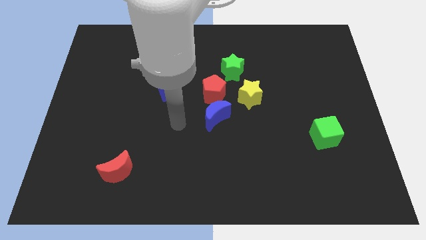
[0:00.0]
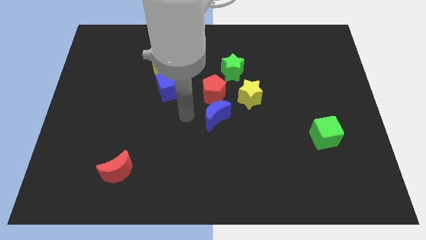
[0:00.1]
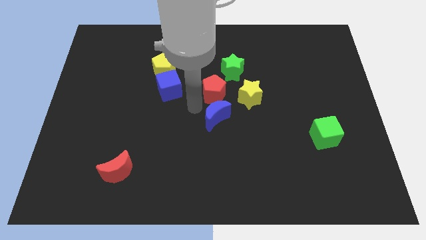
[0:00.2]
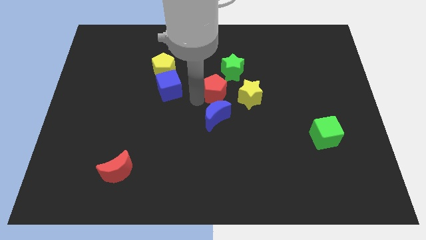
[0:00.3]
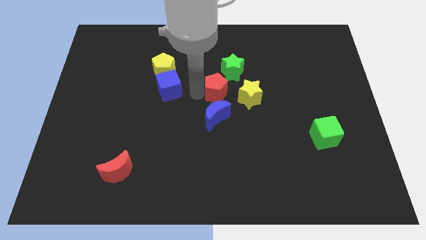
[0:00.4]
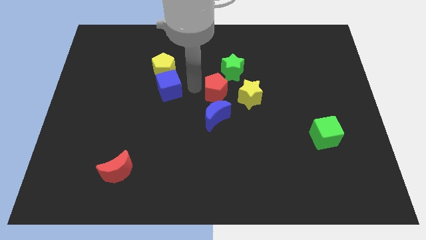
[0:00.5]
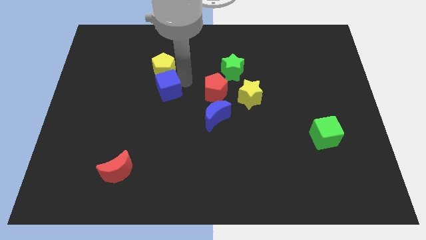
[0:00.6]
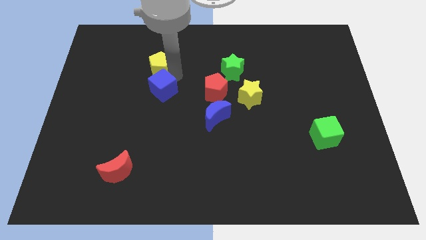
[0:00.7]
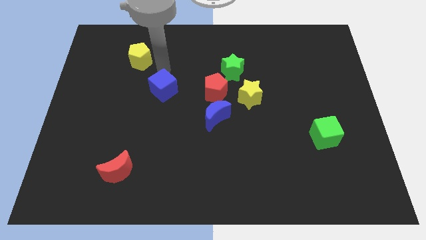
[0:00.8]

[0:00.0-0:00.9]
separate the blue cube from the yellow pentagon

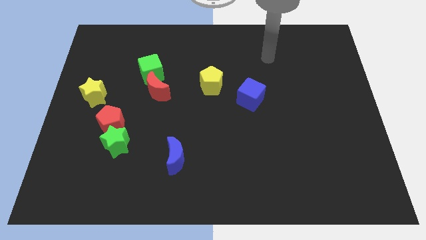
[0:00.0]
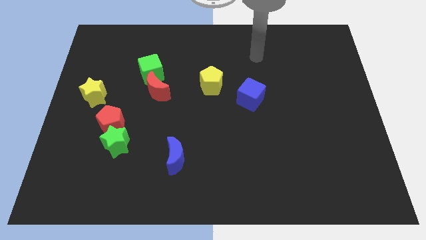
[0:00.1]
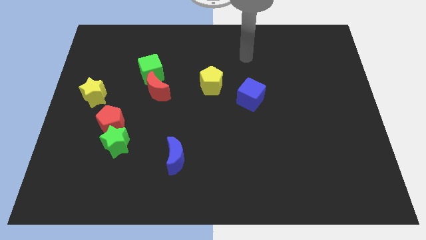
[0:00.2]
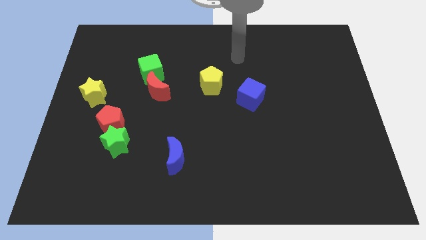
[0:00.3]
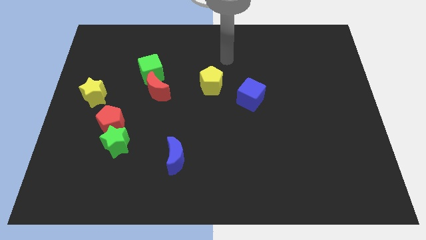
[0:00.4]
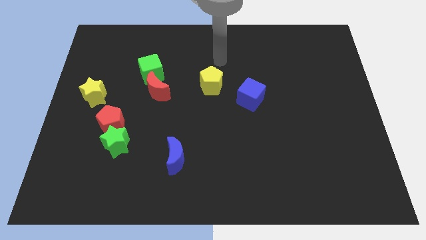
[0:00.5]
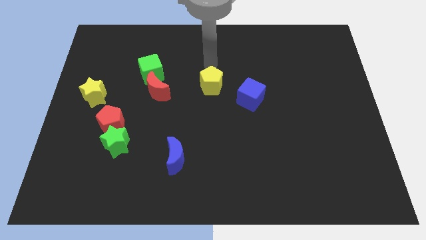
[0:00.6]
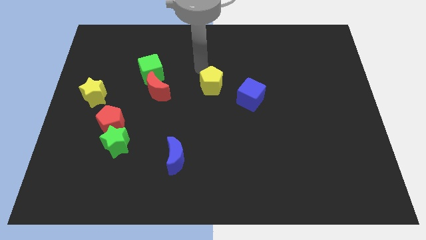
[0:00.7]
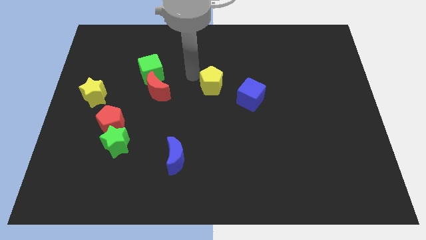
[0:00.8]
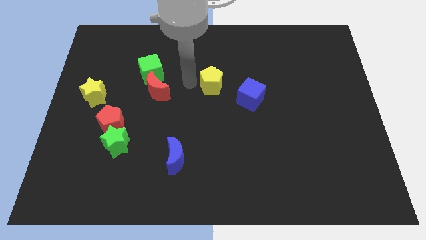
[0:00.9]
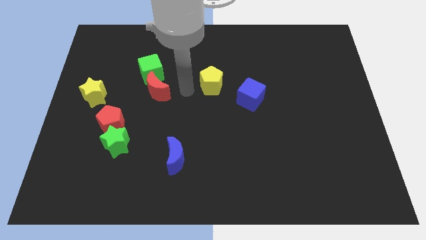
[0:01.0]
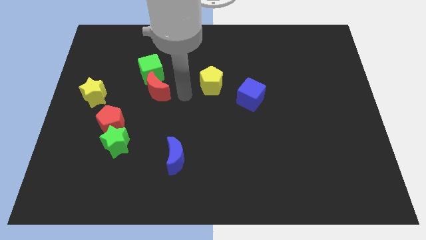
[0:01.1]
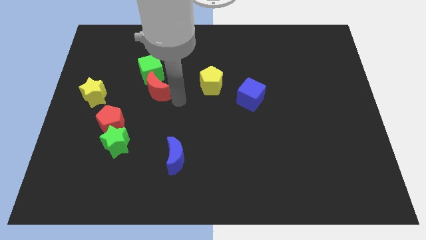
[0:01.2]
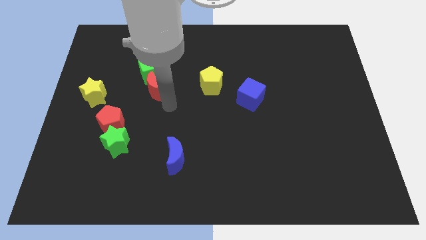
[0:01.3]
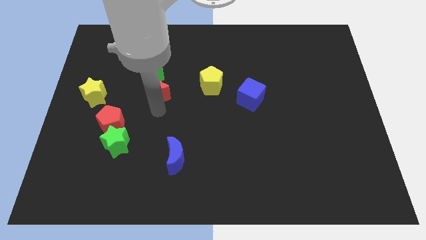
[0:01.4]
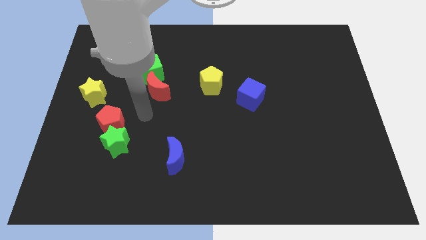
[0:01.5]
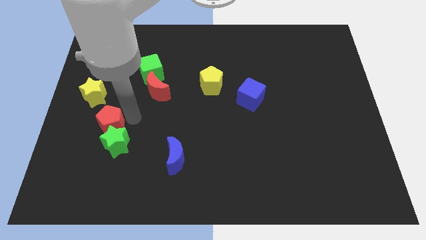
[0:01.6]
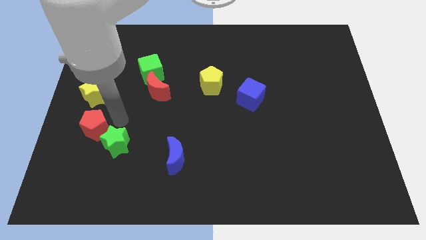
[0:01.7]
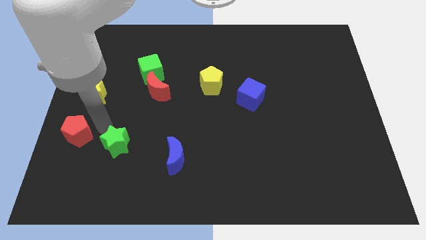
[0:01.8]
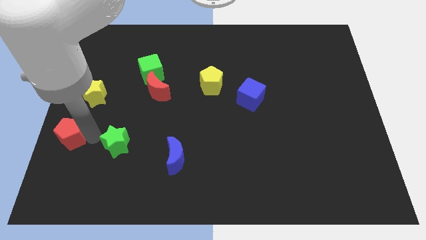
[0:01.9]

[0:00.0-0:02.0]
move the green star away from the red pentagon

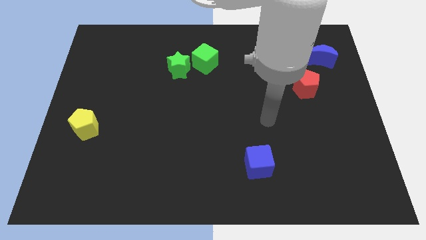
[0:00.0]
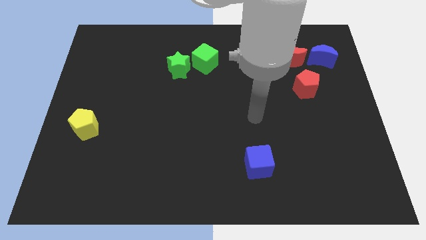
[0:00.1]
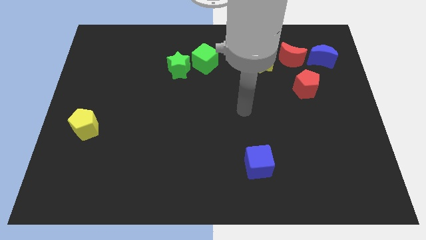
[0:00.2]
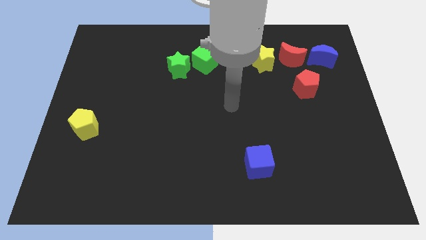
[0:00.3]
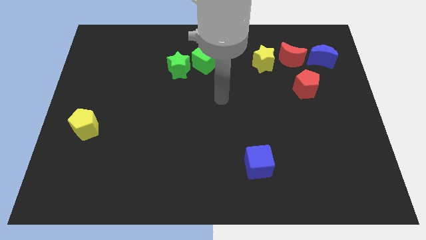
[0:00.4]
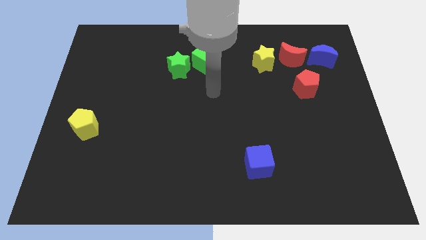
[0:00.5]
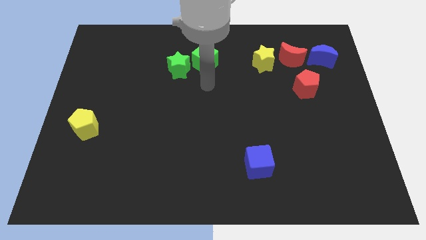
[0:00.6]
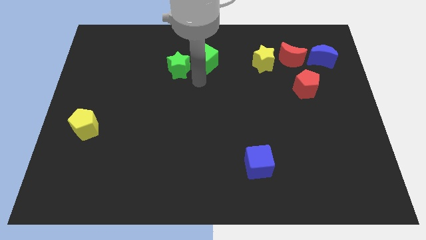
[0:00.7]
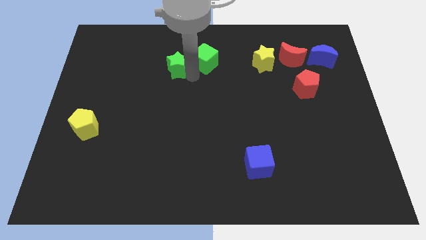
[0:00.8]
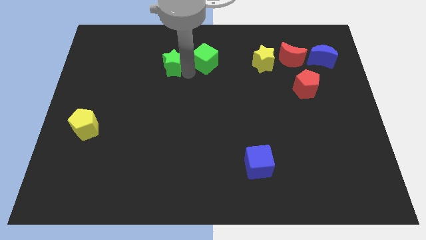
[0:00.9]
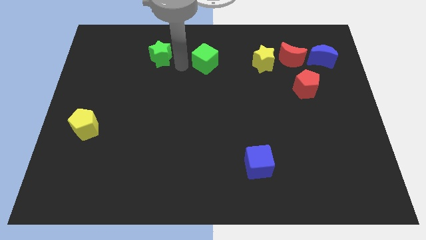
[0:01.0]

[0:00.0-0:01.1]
move the green cube away from the green star

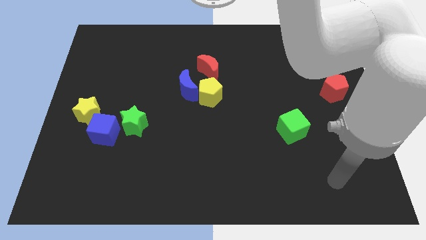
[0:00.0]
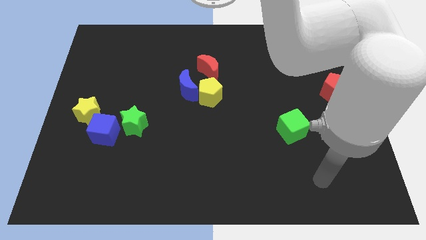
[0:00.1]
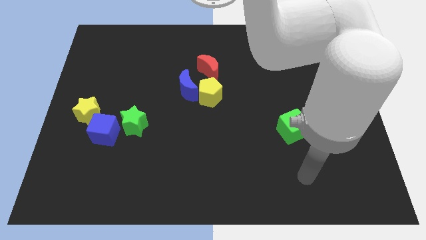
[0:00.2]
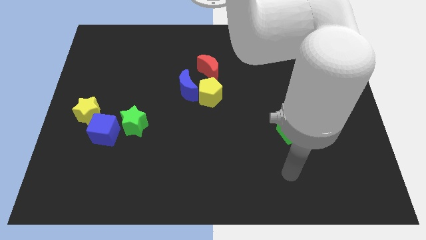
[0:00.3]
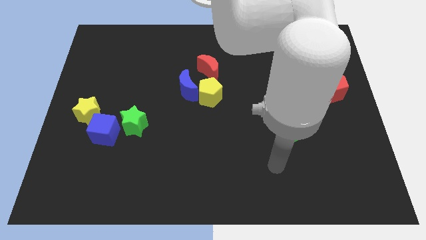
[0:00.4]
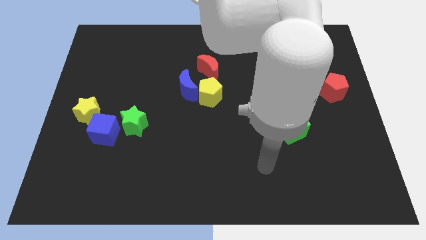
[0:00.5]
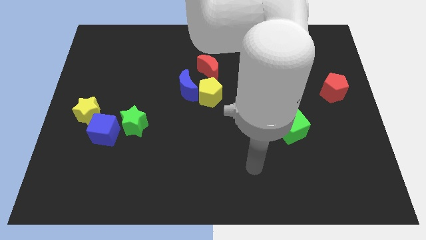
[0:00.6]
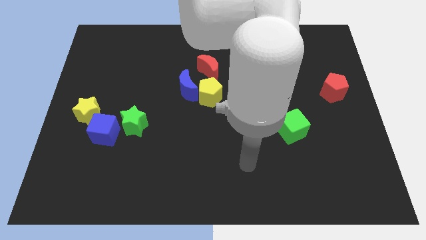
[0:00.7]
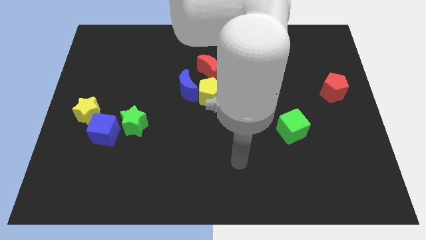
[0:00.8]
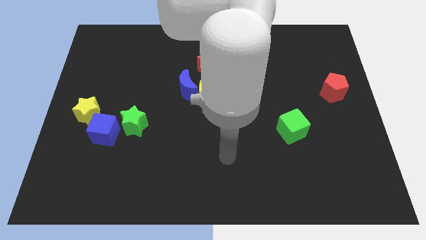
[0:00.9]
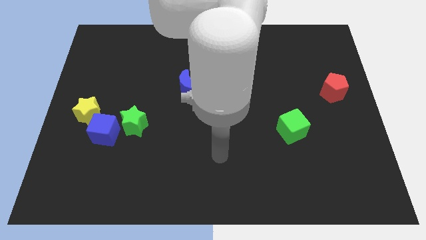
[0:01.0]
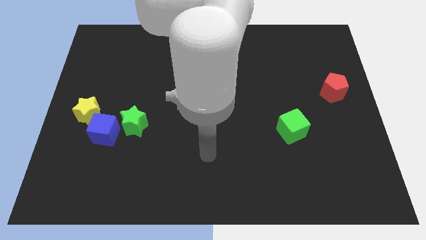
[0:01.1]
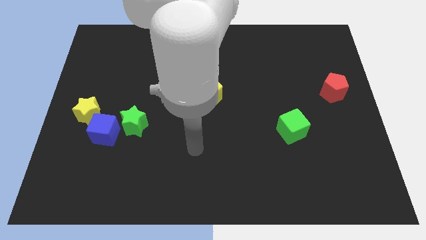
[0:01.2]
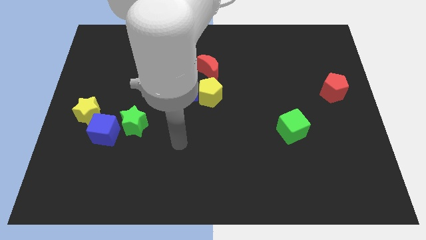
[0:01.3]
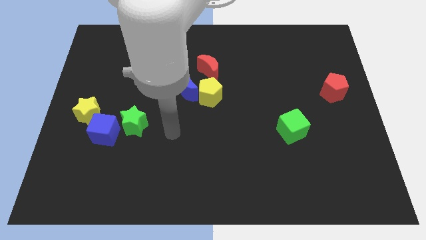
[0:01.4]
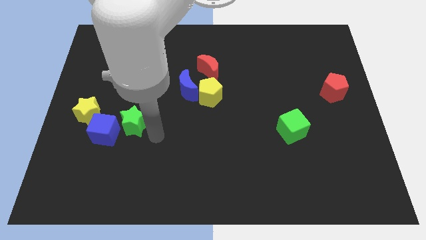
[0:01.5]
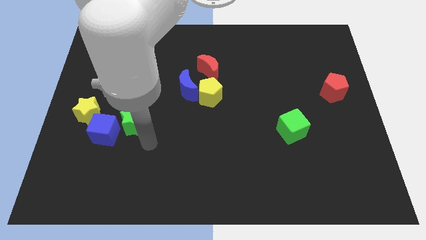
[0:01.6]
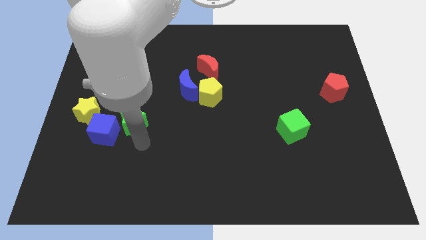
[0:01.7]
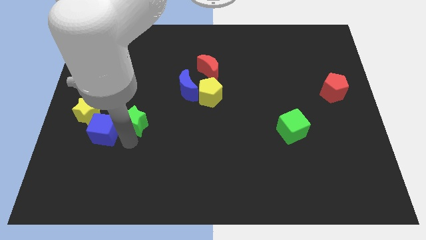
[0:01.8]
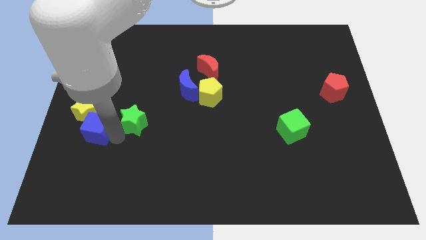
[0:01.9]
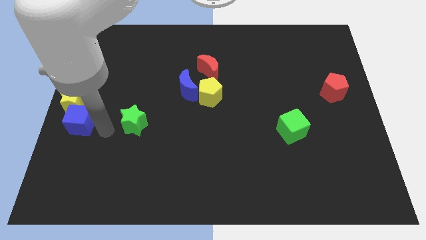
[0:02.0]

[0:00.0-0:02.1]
separate the green star from the blue cube

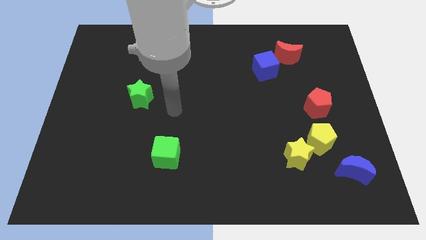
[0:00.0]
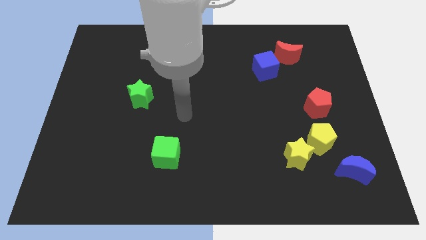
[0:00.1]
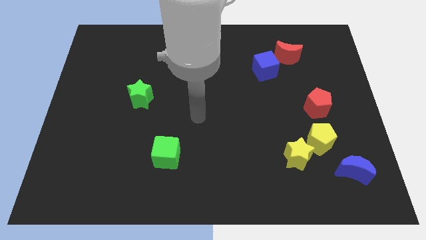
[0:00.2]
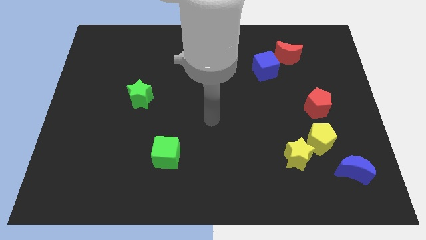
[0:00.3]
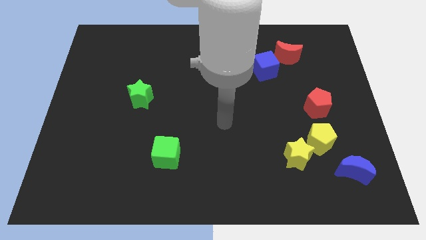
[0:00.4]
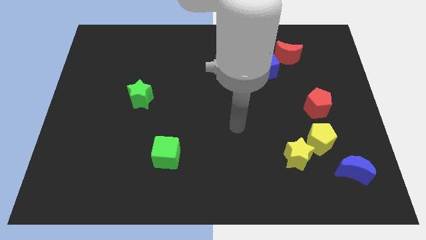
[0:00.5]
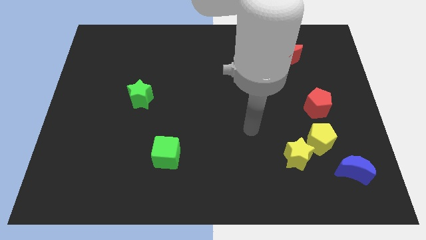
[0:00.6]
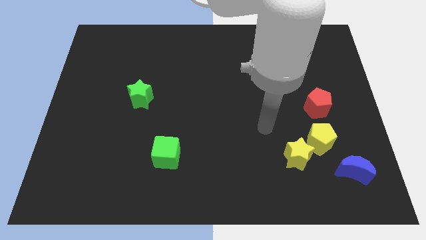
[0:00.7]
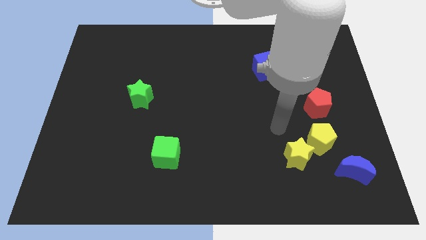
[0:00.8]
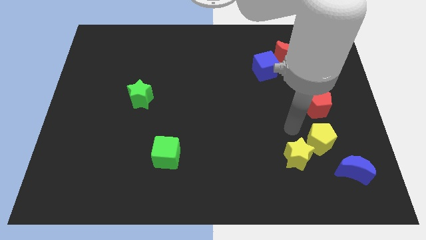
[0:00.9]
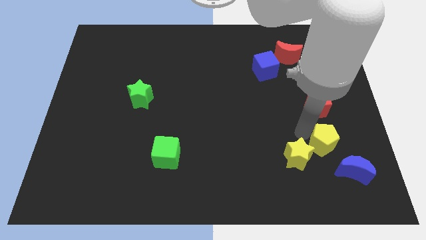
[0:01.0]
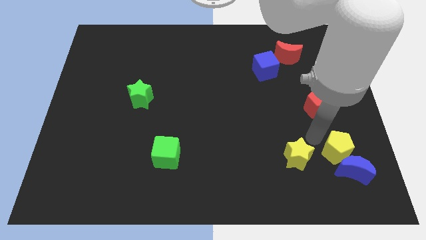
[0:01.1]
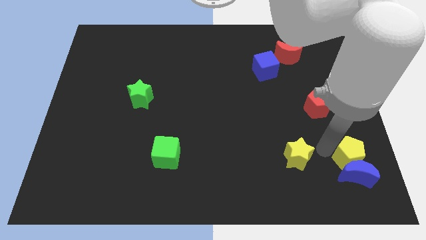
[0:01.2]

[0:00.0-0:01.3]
separate the yellow star from the yellow pentagon

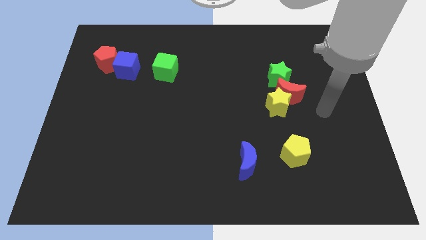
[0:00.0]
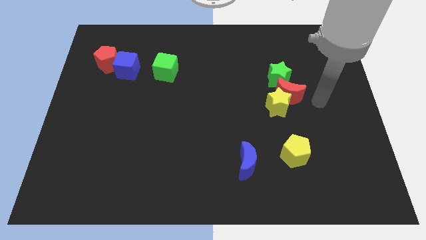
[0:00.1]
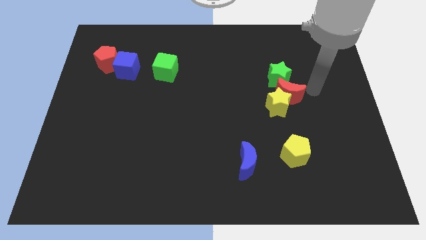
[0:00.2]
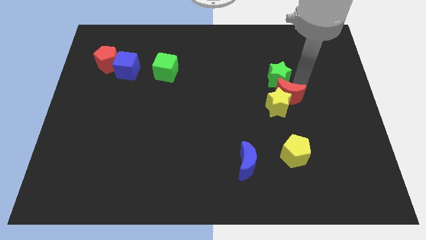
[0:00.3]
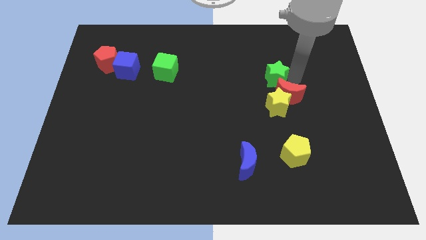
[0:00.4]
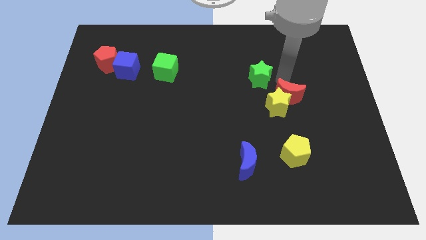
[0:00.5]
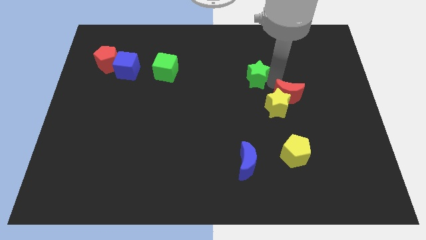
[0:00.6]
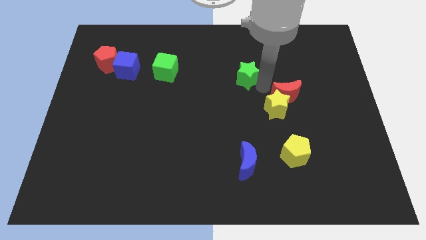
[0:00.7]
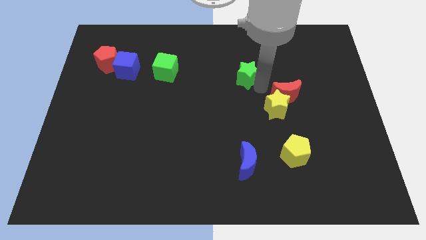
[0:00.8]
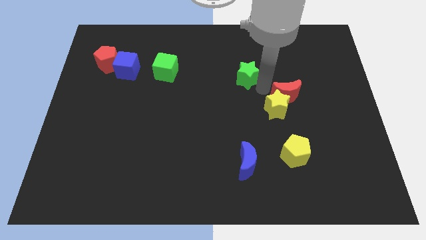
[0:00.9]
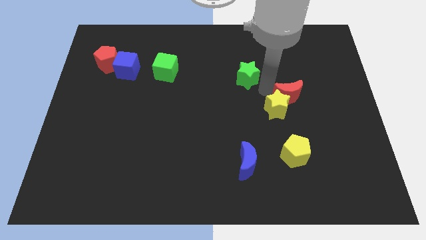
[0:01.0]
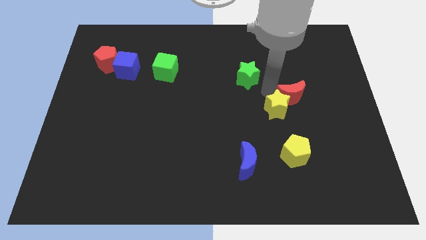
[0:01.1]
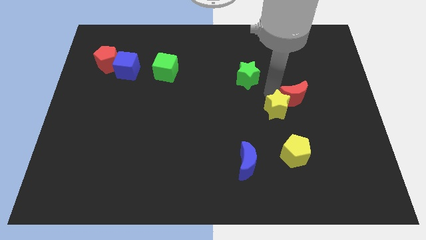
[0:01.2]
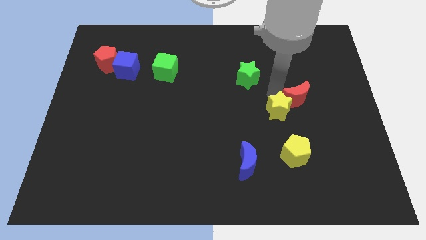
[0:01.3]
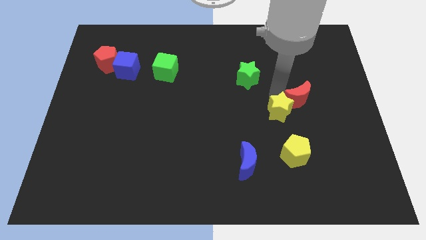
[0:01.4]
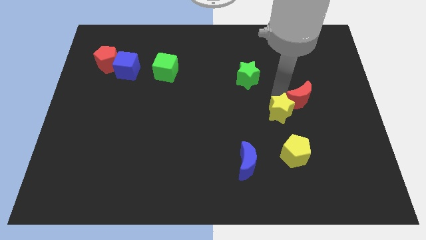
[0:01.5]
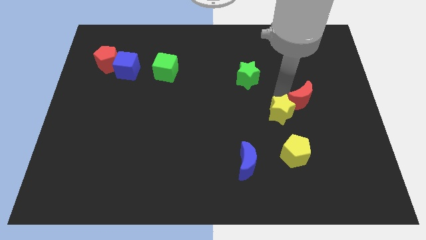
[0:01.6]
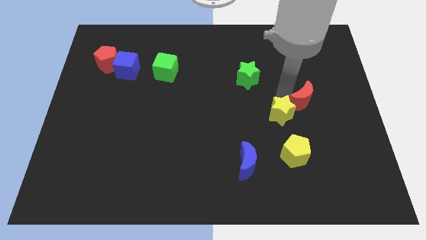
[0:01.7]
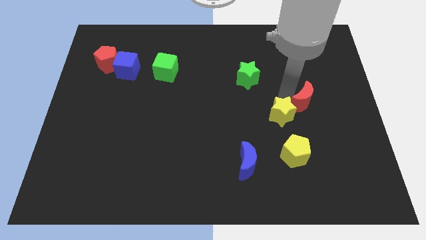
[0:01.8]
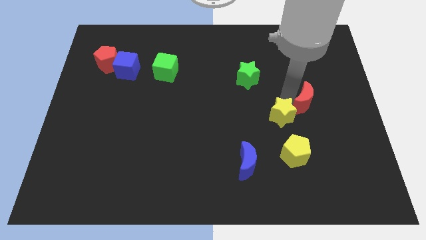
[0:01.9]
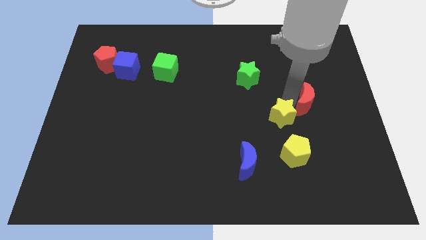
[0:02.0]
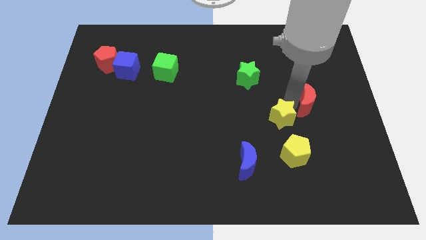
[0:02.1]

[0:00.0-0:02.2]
pull the red moon apart from the yellow star and green star
